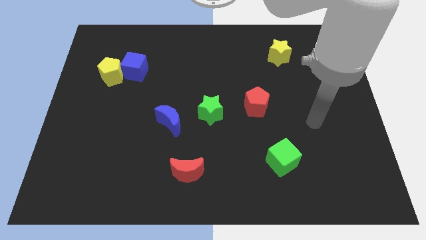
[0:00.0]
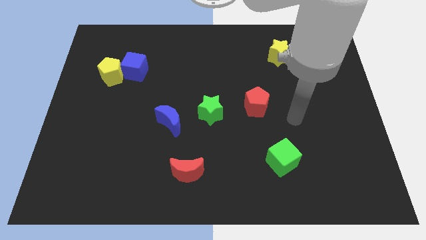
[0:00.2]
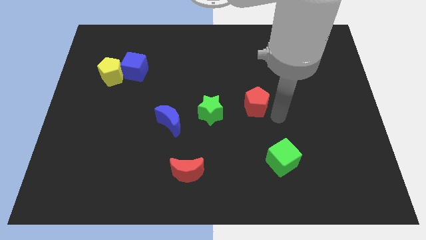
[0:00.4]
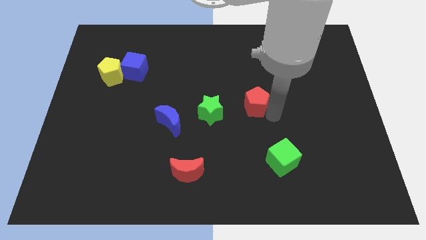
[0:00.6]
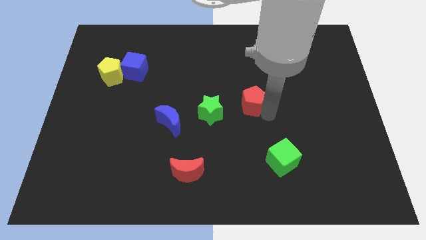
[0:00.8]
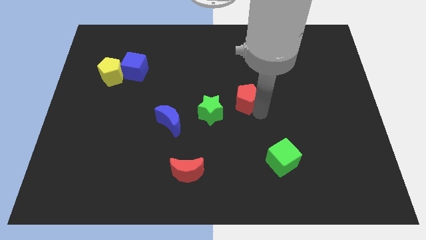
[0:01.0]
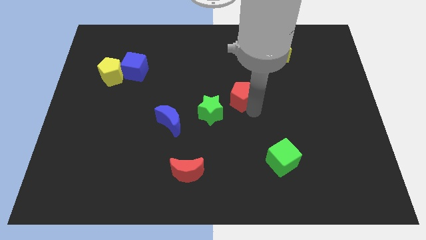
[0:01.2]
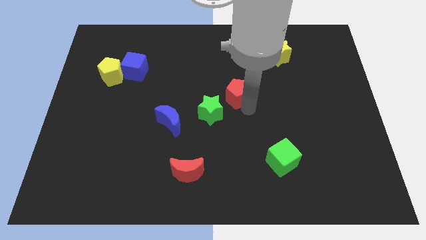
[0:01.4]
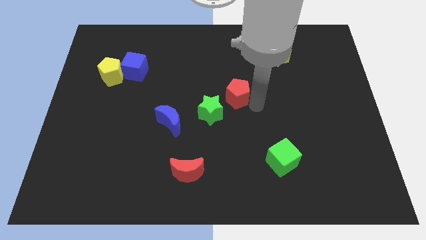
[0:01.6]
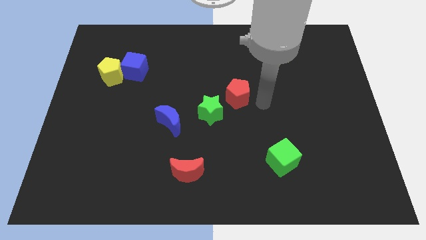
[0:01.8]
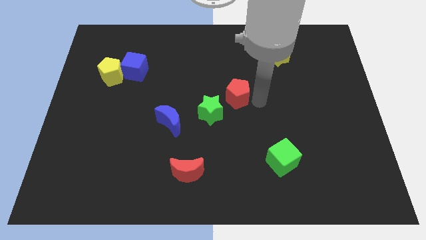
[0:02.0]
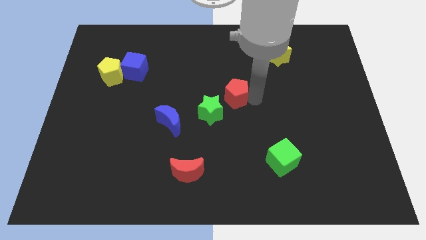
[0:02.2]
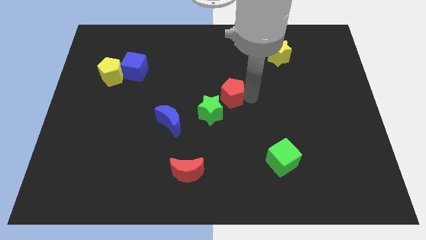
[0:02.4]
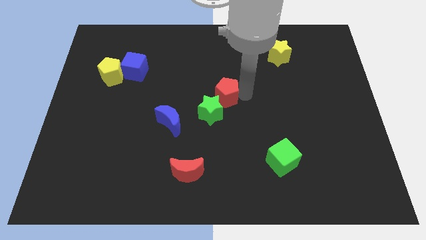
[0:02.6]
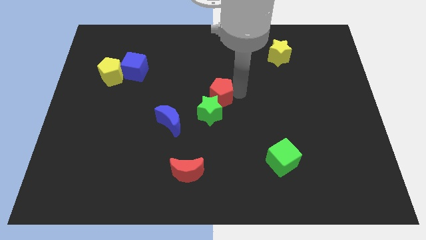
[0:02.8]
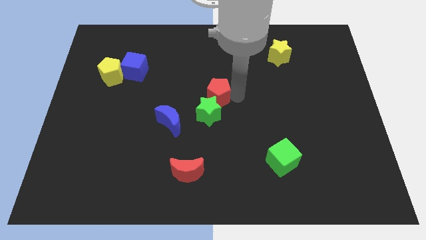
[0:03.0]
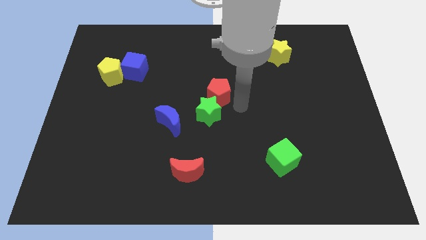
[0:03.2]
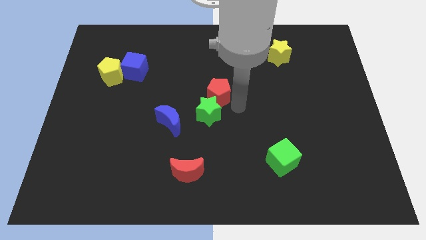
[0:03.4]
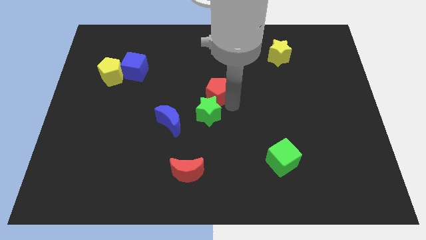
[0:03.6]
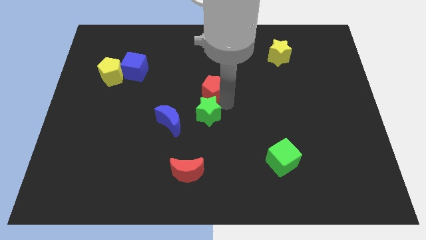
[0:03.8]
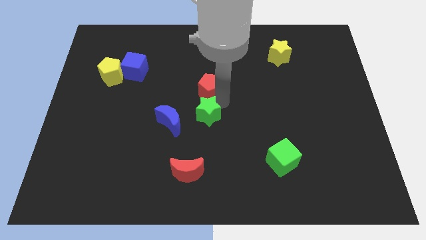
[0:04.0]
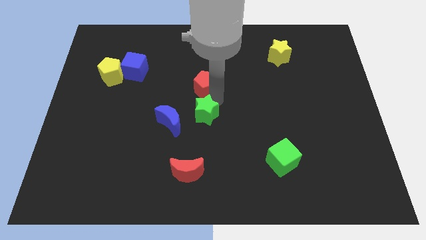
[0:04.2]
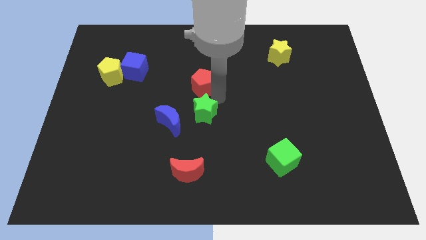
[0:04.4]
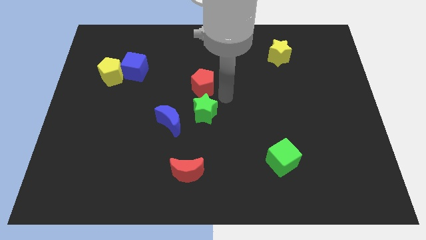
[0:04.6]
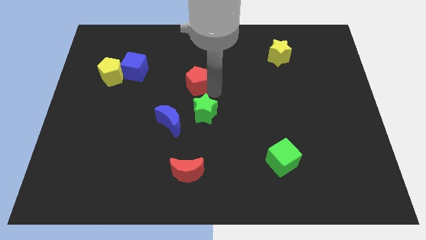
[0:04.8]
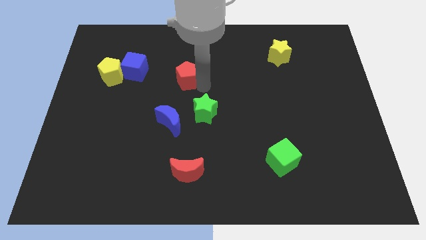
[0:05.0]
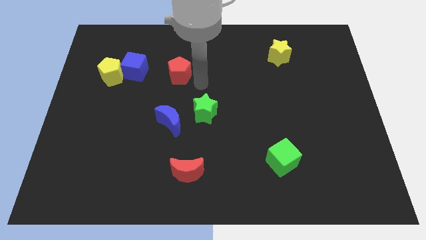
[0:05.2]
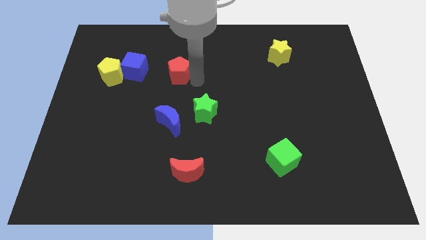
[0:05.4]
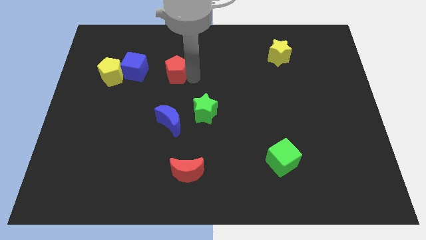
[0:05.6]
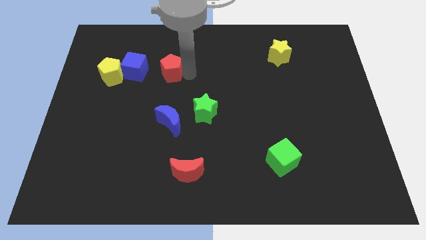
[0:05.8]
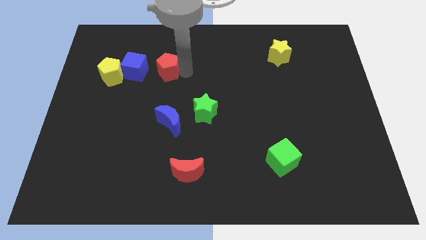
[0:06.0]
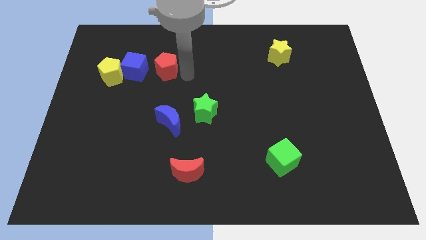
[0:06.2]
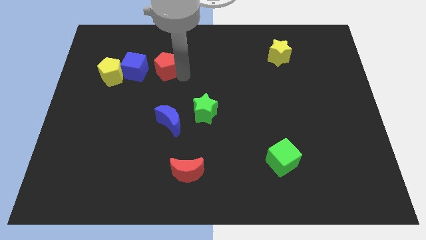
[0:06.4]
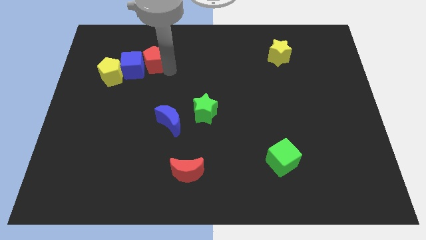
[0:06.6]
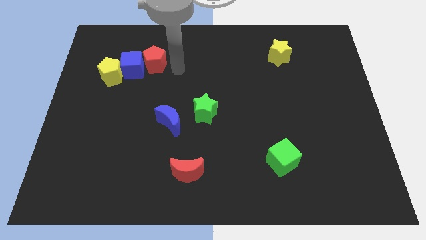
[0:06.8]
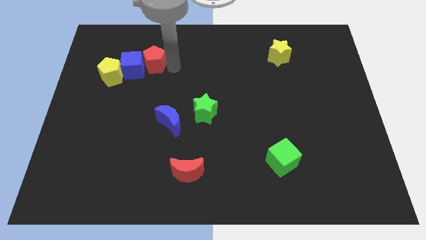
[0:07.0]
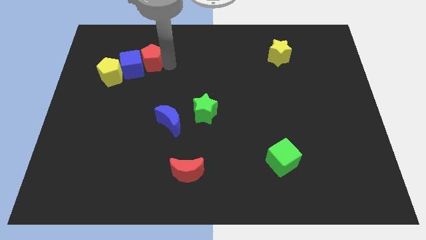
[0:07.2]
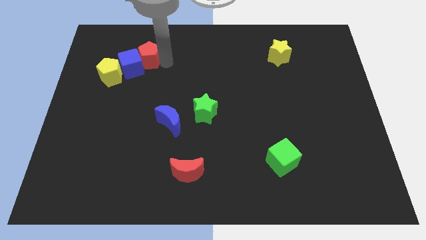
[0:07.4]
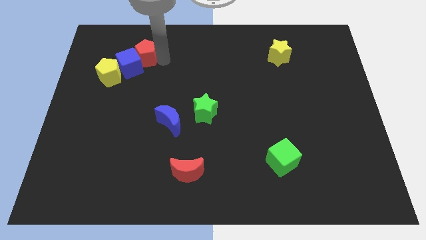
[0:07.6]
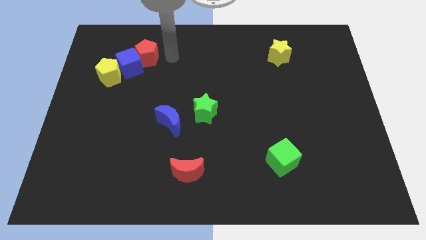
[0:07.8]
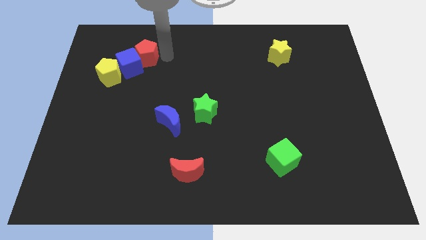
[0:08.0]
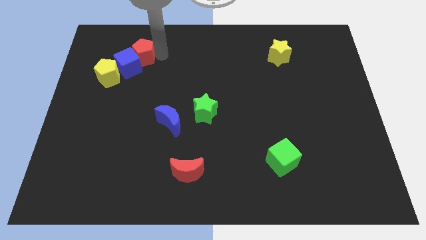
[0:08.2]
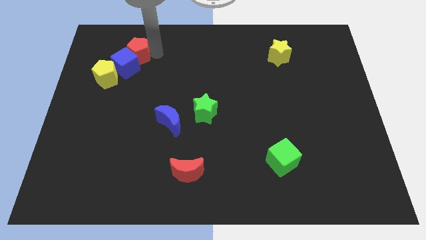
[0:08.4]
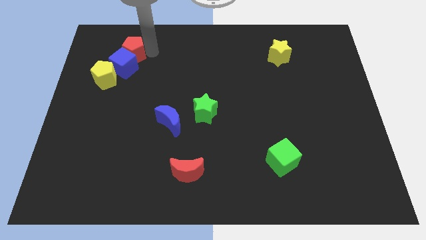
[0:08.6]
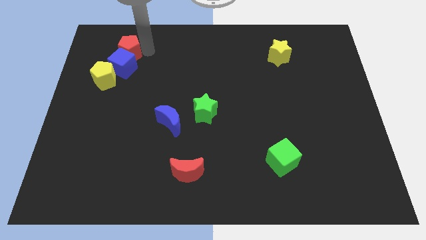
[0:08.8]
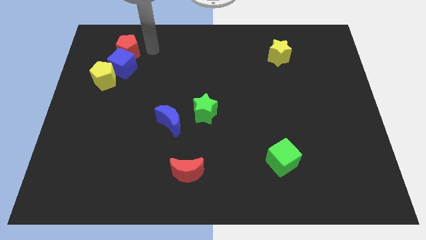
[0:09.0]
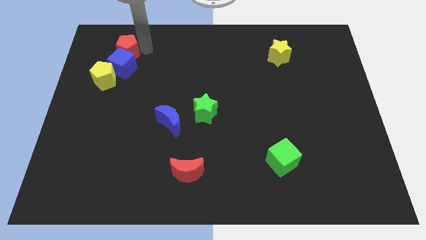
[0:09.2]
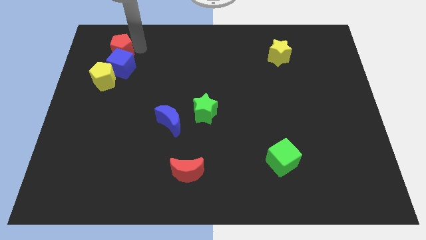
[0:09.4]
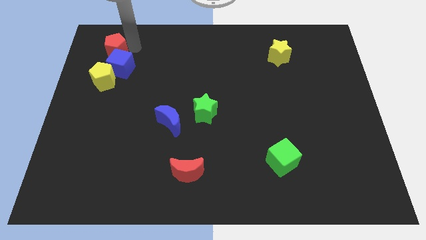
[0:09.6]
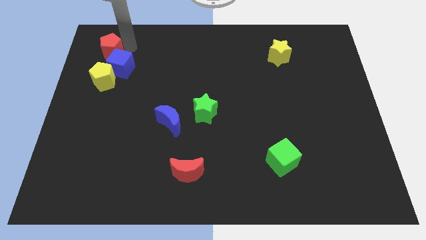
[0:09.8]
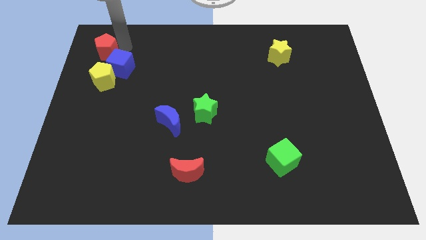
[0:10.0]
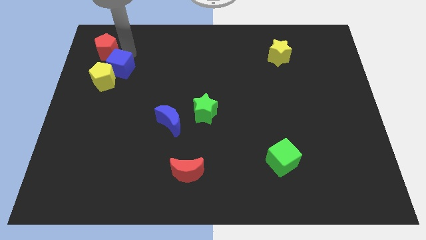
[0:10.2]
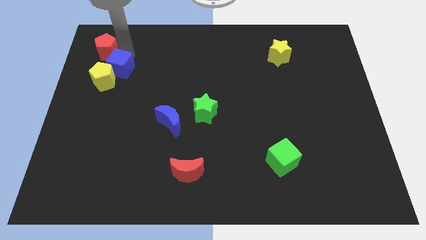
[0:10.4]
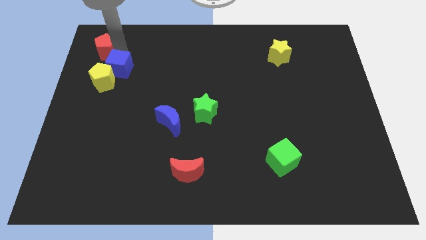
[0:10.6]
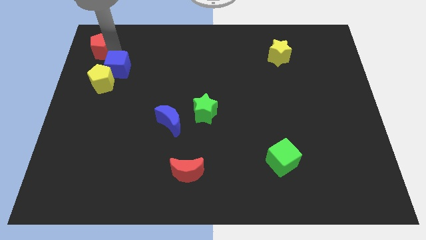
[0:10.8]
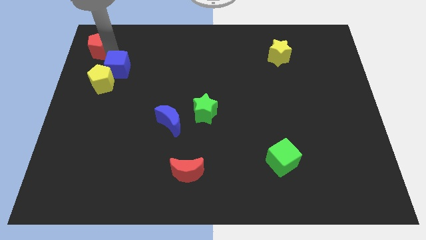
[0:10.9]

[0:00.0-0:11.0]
push the red pentagon to the top left corner
